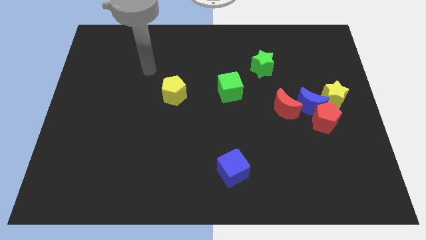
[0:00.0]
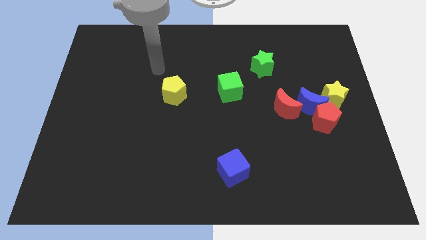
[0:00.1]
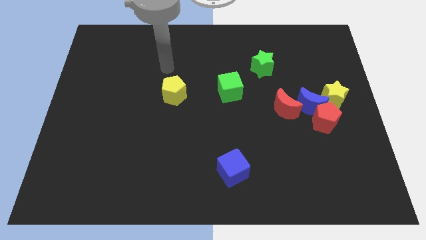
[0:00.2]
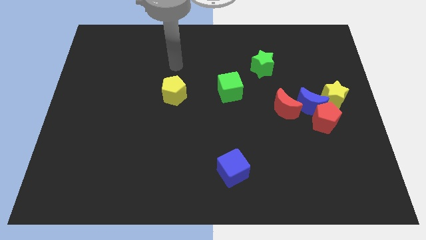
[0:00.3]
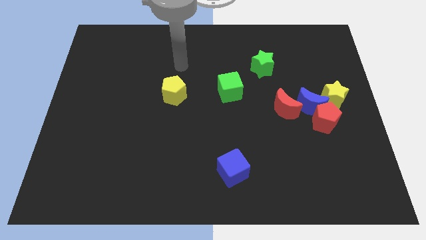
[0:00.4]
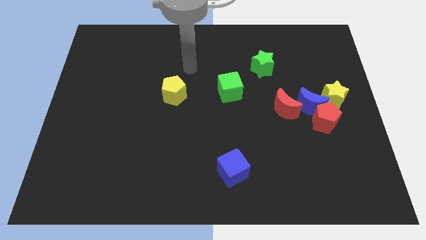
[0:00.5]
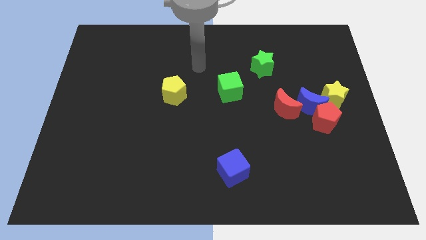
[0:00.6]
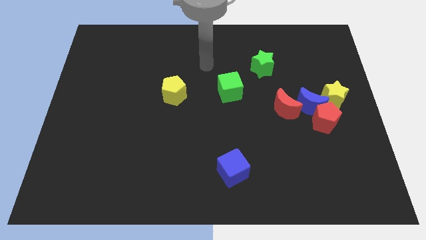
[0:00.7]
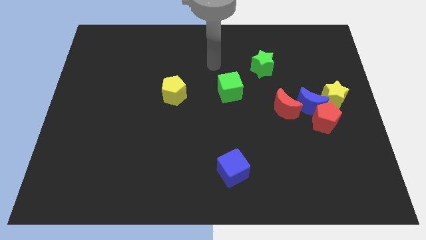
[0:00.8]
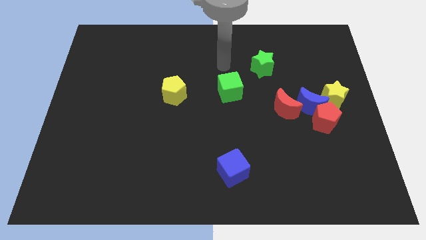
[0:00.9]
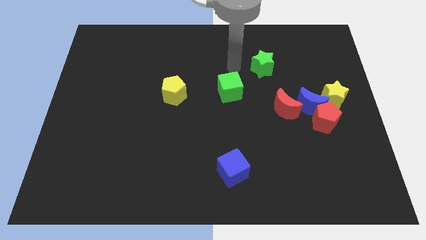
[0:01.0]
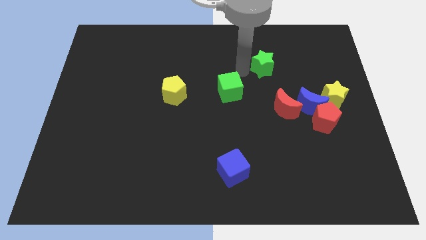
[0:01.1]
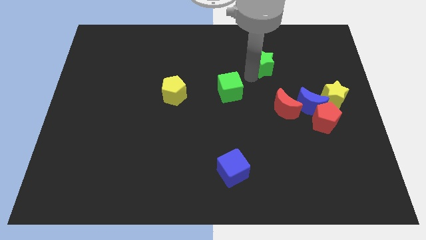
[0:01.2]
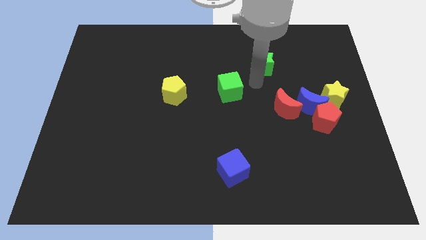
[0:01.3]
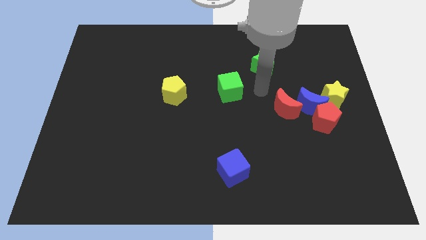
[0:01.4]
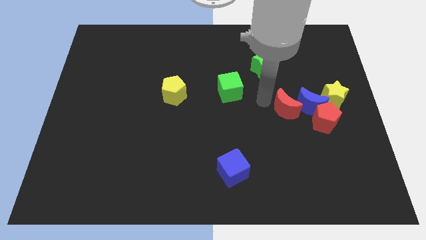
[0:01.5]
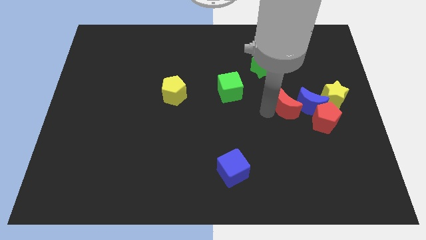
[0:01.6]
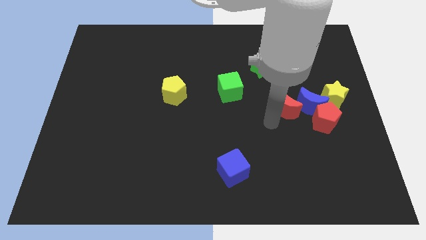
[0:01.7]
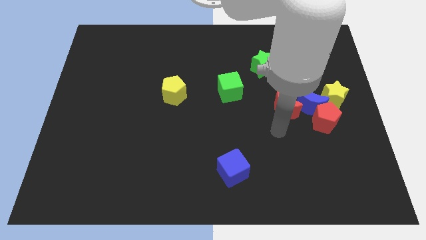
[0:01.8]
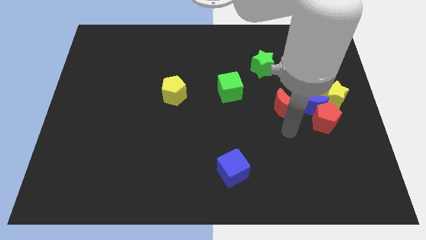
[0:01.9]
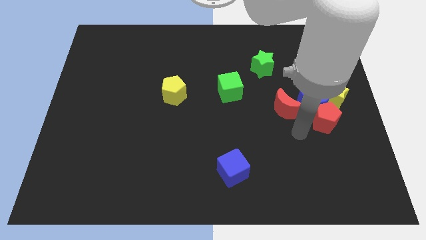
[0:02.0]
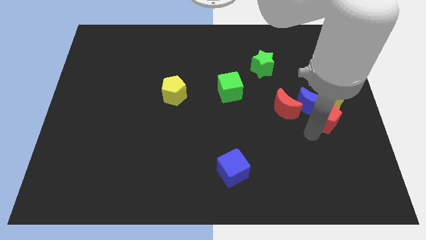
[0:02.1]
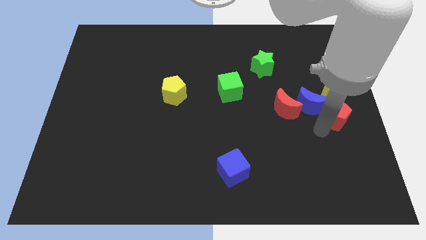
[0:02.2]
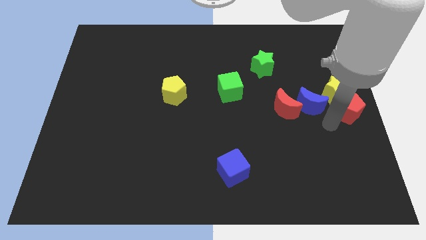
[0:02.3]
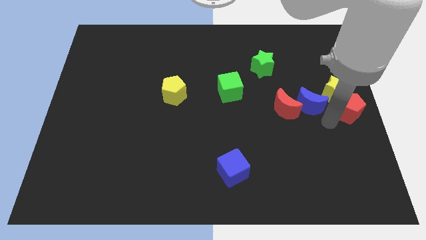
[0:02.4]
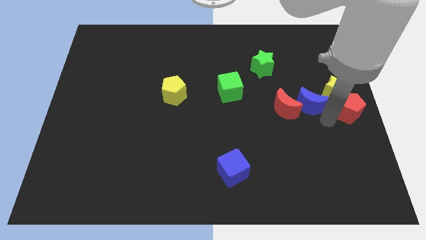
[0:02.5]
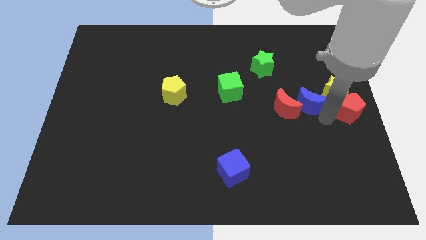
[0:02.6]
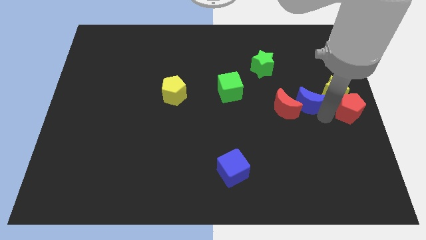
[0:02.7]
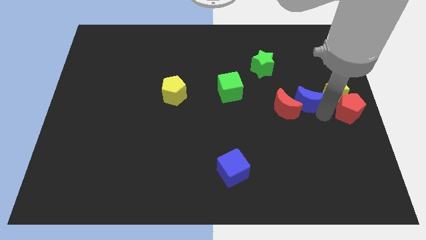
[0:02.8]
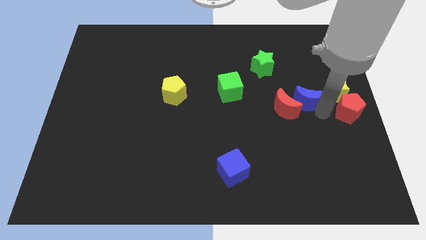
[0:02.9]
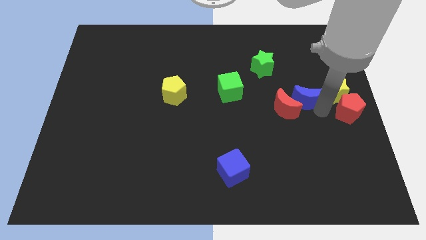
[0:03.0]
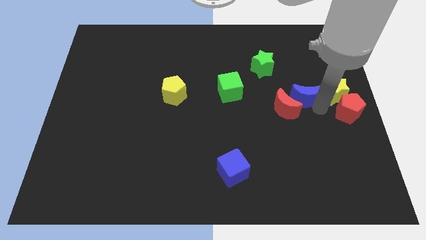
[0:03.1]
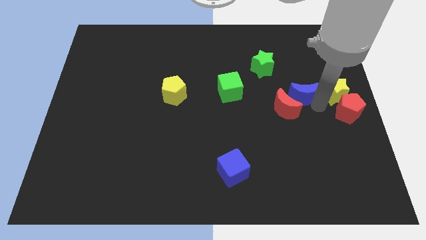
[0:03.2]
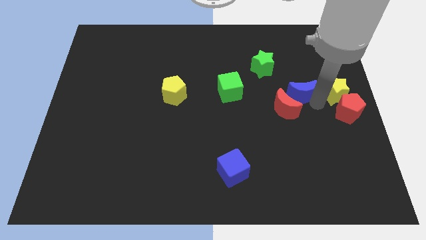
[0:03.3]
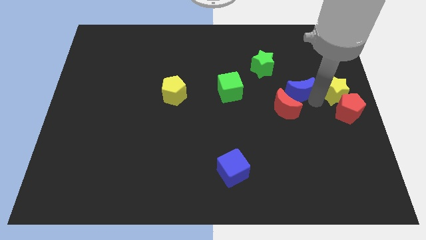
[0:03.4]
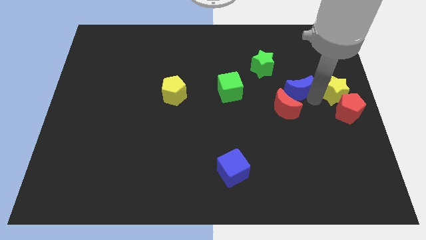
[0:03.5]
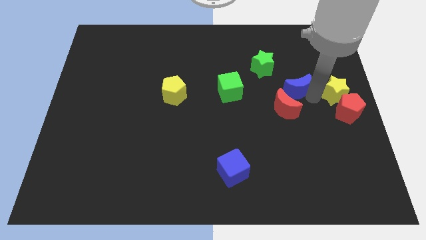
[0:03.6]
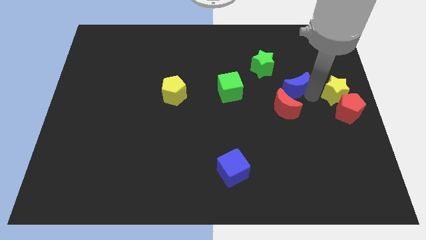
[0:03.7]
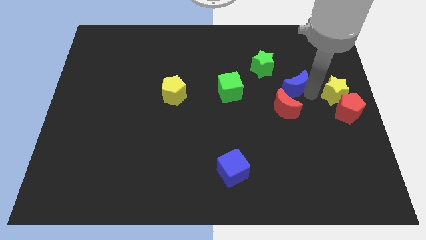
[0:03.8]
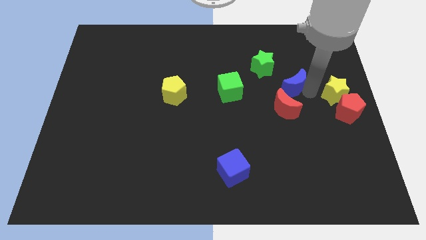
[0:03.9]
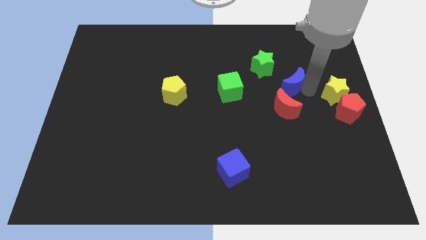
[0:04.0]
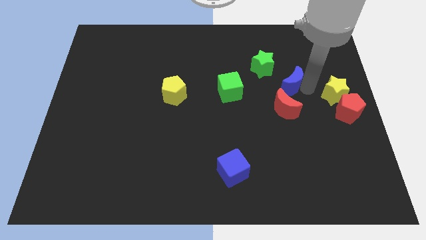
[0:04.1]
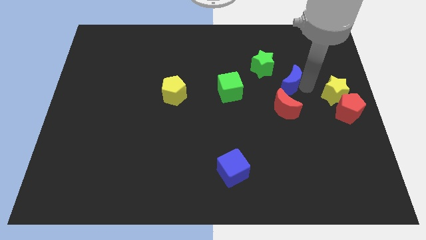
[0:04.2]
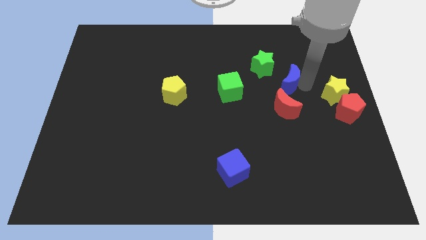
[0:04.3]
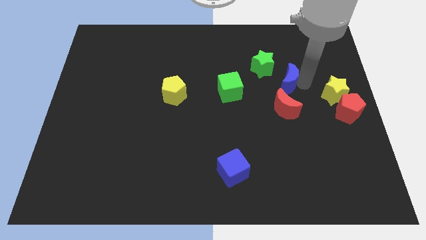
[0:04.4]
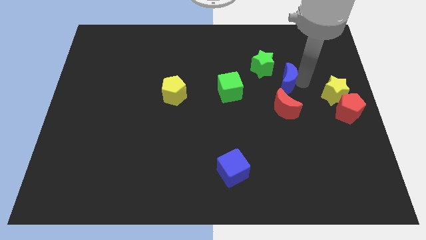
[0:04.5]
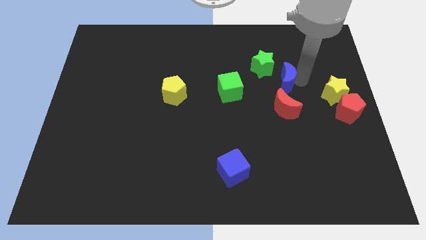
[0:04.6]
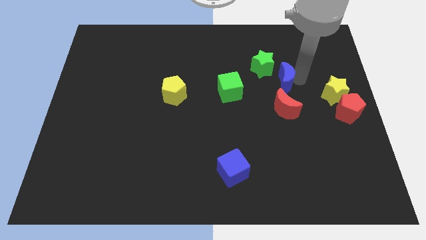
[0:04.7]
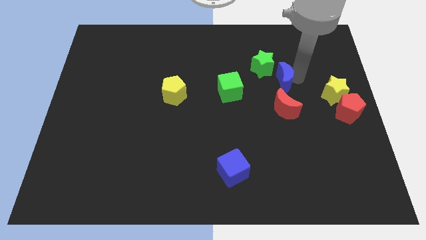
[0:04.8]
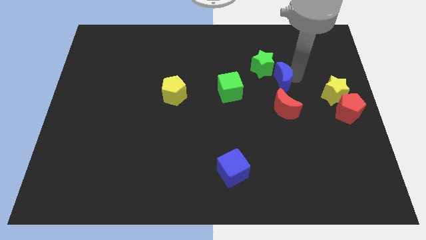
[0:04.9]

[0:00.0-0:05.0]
put the blue moon to the bottom side of the green star

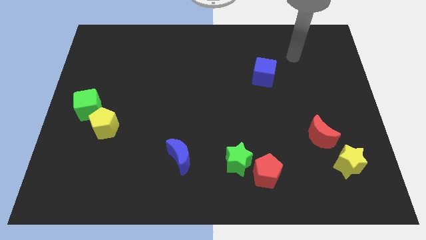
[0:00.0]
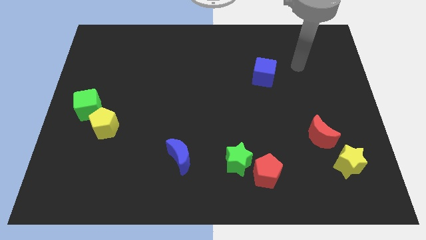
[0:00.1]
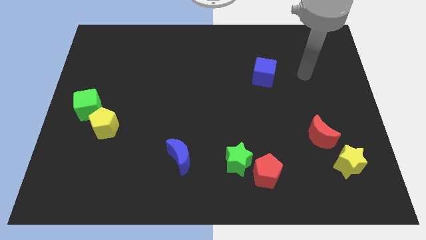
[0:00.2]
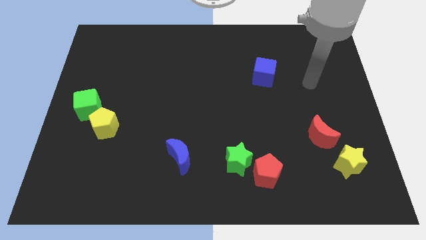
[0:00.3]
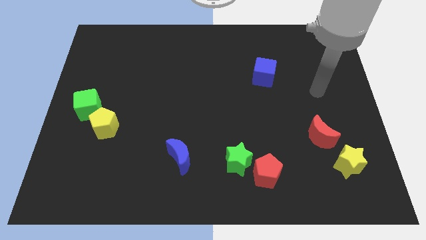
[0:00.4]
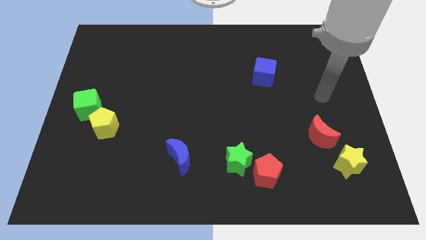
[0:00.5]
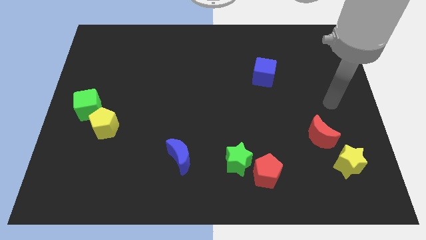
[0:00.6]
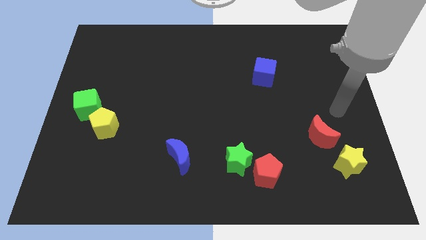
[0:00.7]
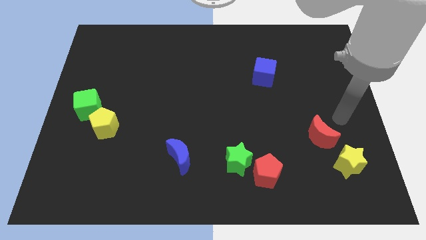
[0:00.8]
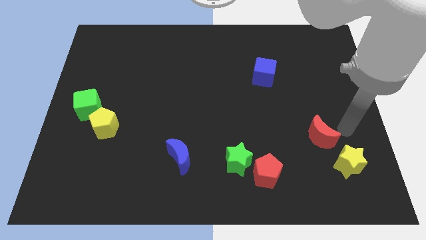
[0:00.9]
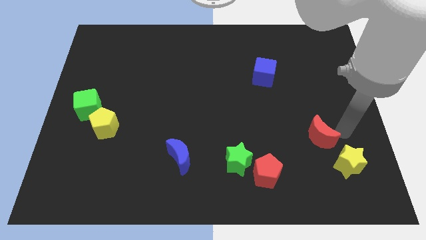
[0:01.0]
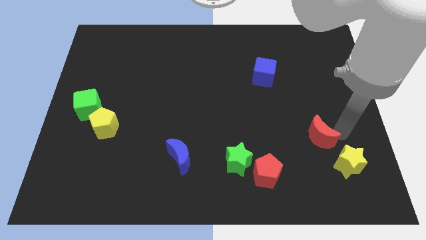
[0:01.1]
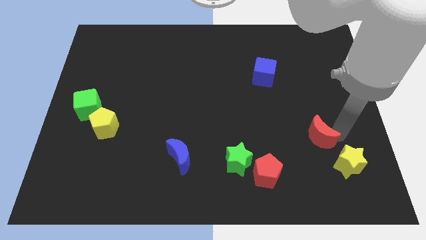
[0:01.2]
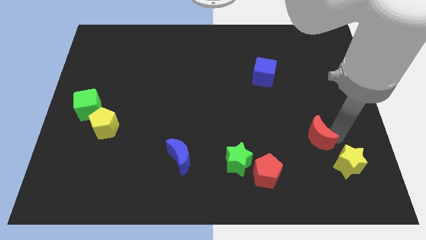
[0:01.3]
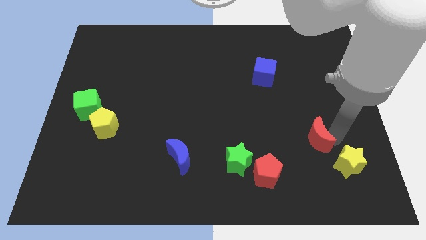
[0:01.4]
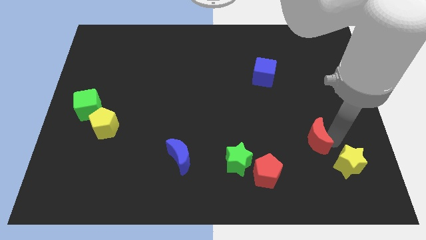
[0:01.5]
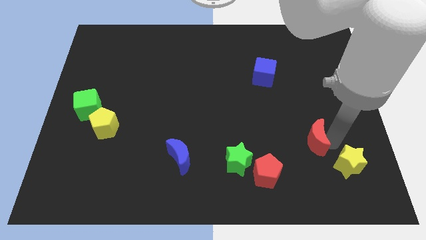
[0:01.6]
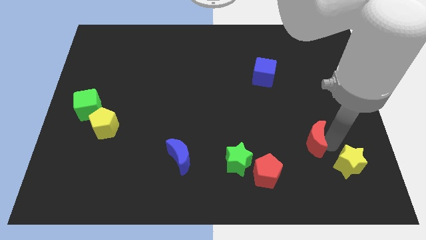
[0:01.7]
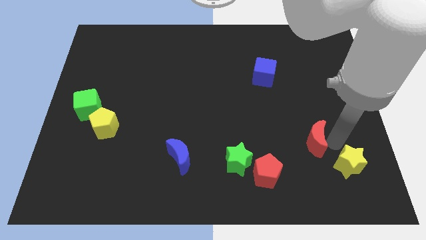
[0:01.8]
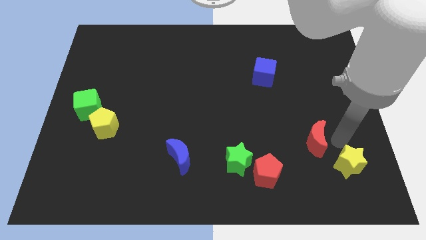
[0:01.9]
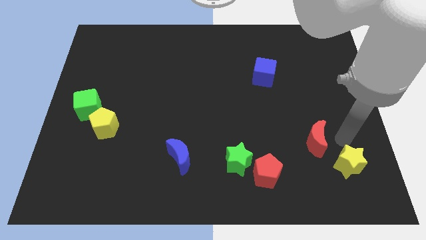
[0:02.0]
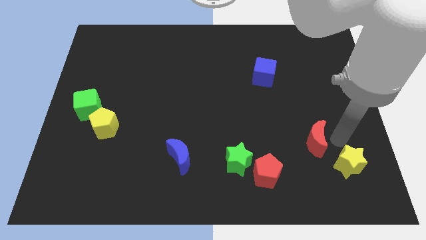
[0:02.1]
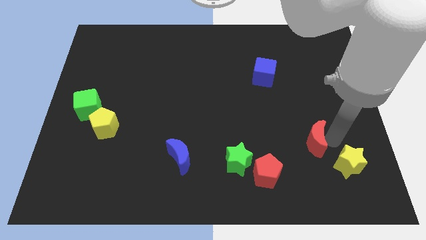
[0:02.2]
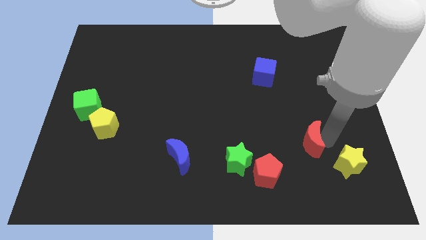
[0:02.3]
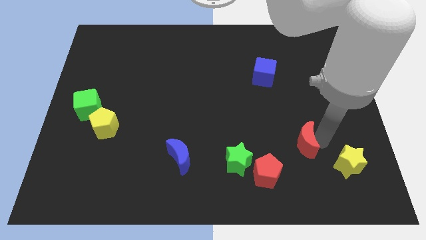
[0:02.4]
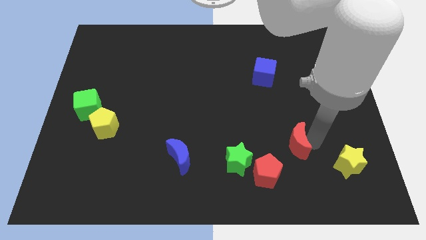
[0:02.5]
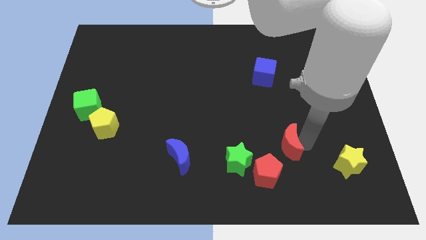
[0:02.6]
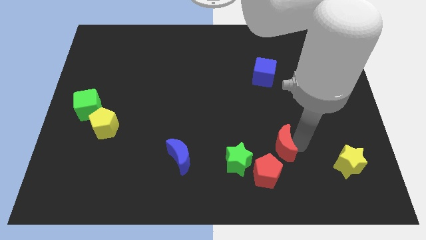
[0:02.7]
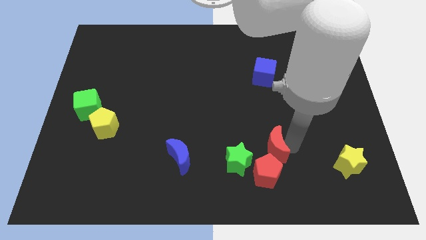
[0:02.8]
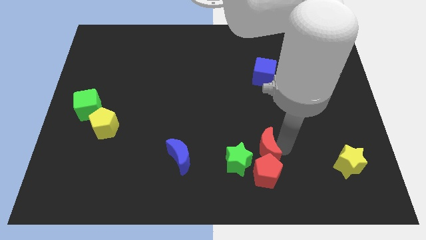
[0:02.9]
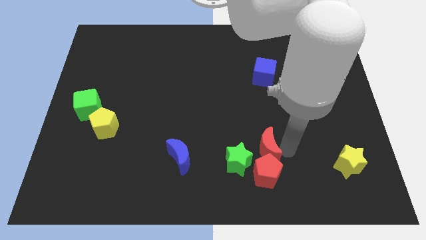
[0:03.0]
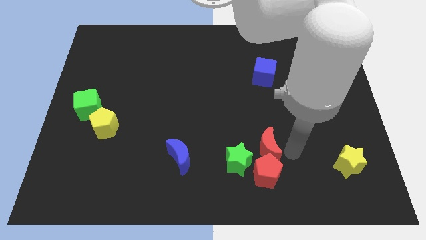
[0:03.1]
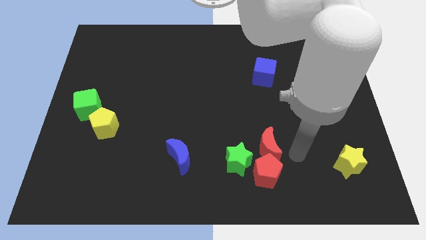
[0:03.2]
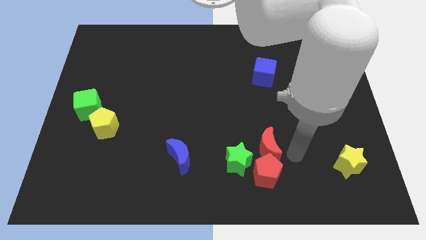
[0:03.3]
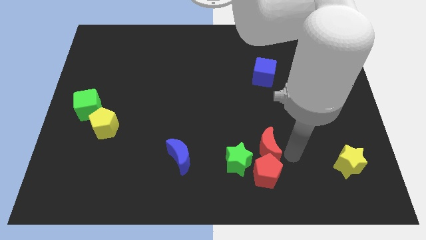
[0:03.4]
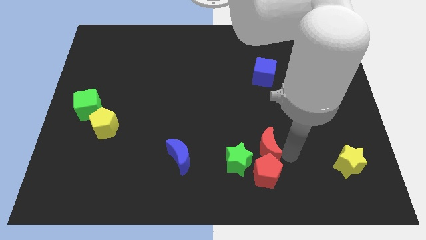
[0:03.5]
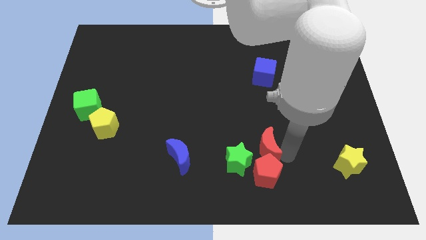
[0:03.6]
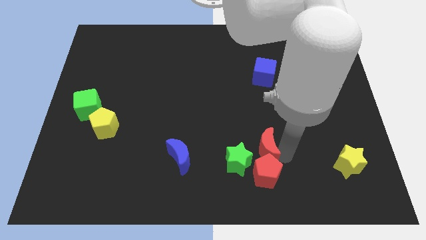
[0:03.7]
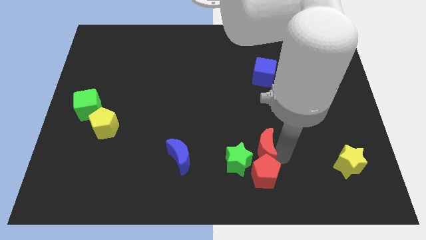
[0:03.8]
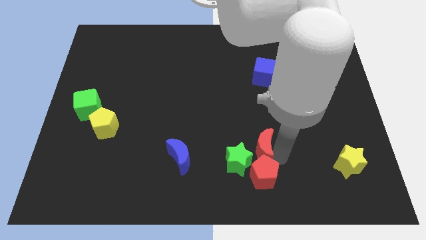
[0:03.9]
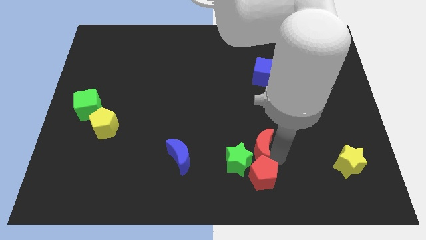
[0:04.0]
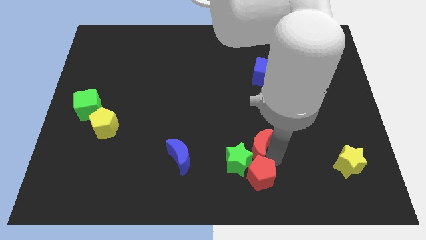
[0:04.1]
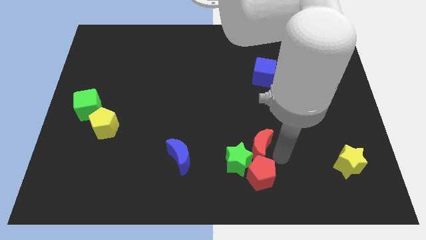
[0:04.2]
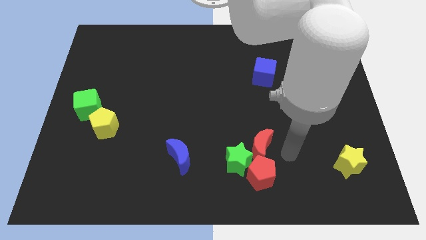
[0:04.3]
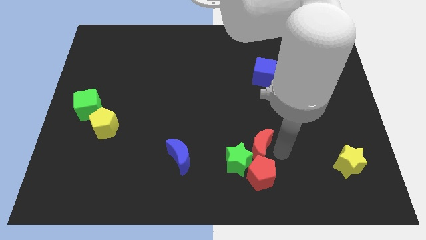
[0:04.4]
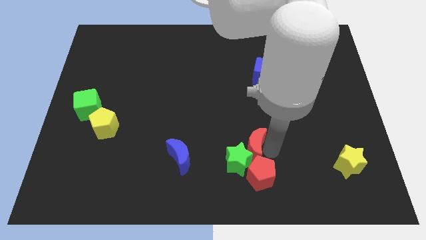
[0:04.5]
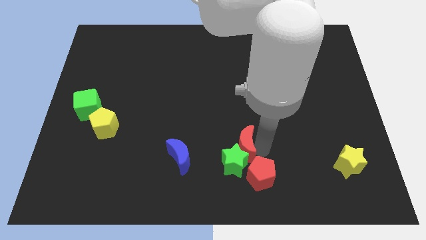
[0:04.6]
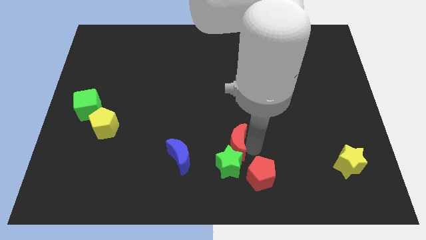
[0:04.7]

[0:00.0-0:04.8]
slide the red moon to the top left side of the green star
